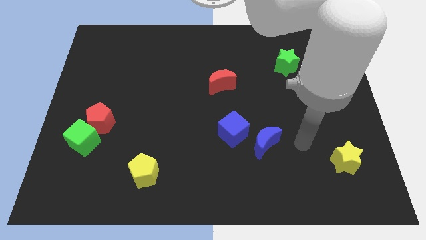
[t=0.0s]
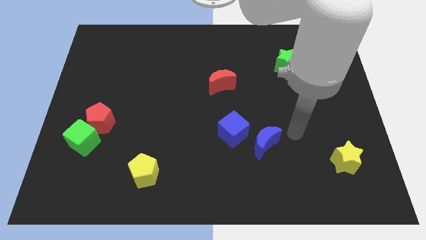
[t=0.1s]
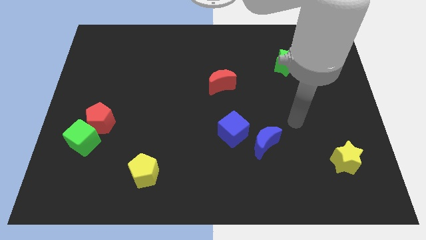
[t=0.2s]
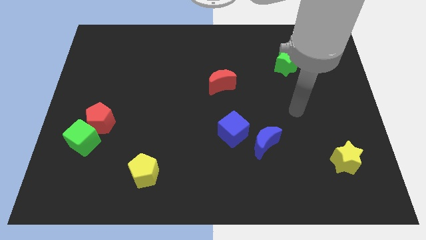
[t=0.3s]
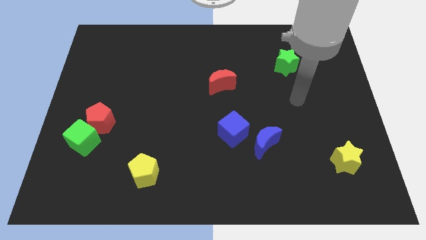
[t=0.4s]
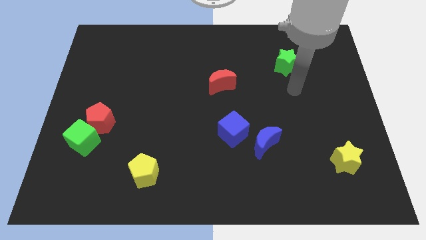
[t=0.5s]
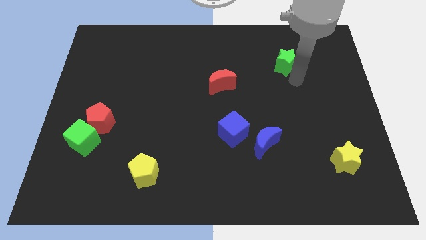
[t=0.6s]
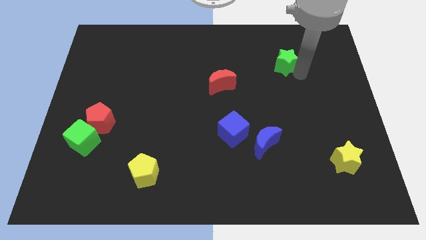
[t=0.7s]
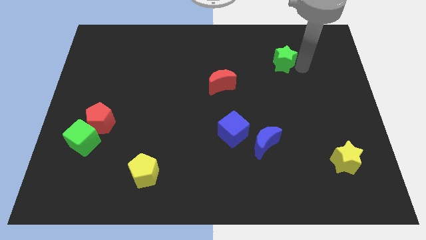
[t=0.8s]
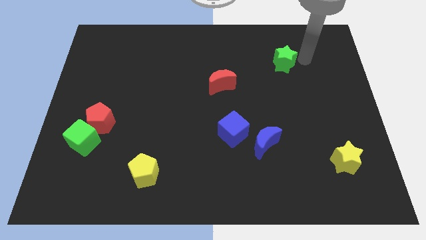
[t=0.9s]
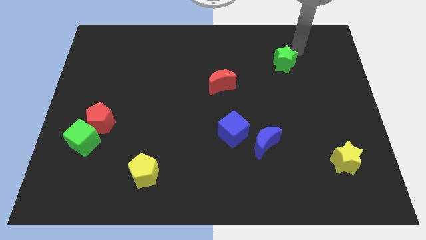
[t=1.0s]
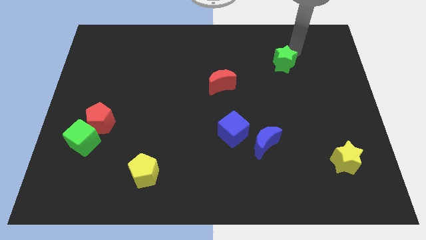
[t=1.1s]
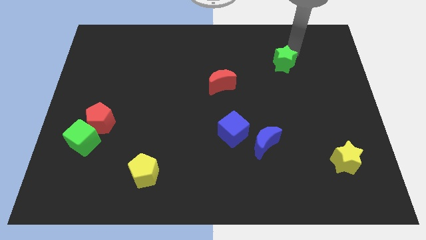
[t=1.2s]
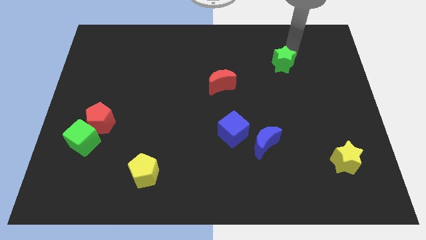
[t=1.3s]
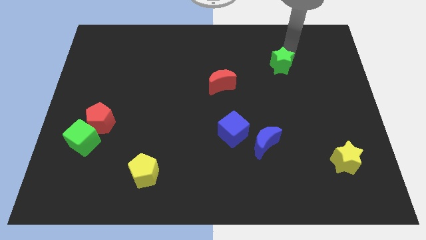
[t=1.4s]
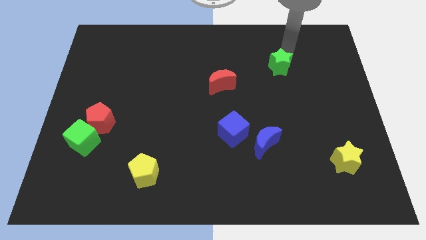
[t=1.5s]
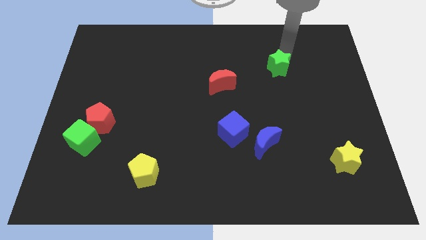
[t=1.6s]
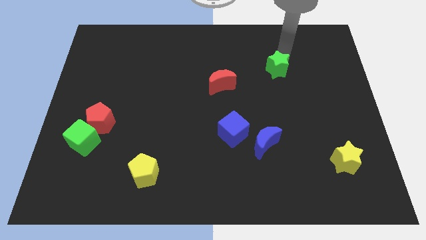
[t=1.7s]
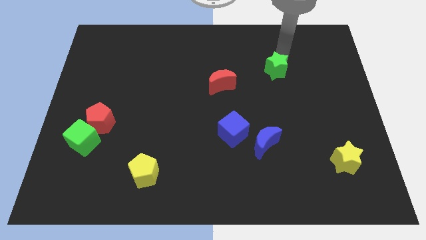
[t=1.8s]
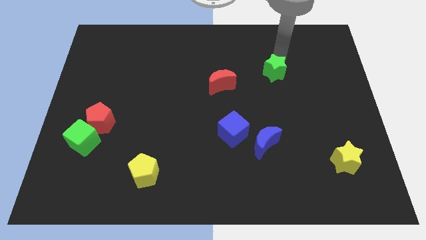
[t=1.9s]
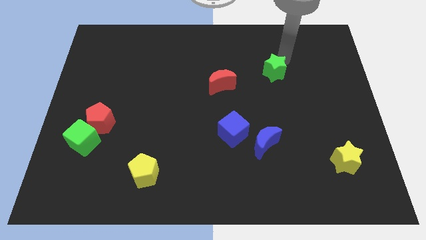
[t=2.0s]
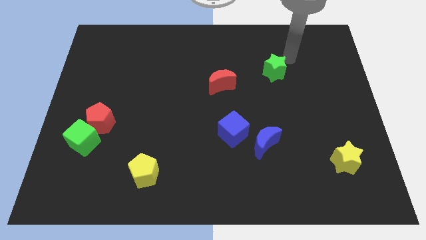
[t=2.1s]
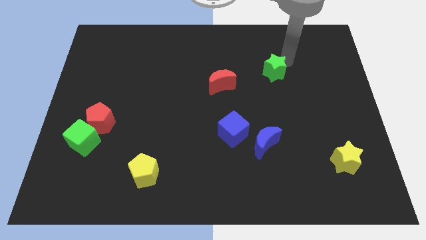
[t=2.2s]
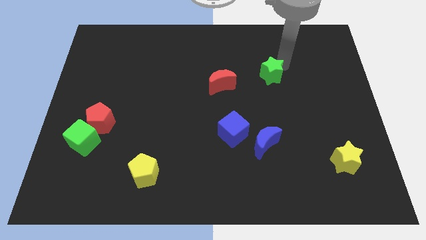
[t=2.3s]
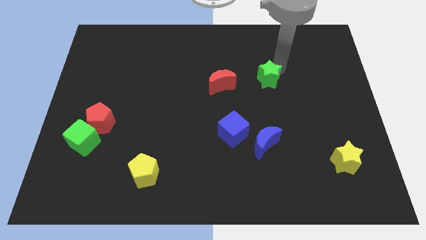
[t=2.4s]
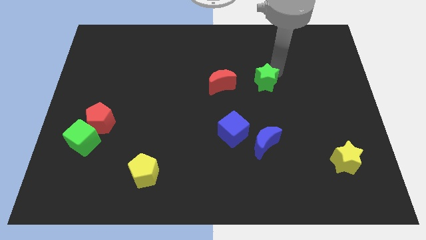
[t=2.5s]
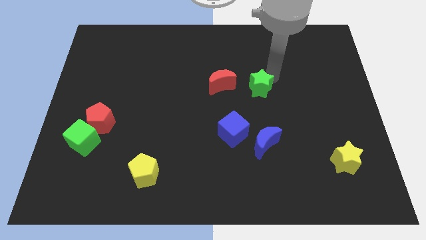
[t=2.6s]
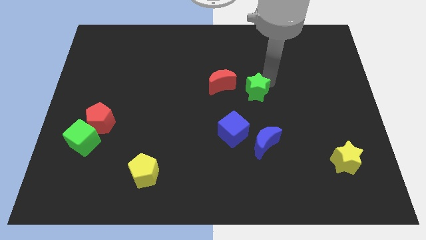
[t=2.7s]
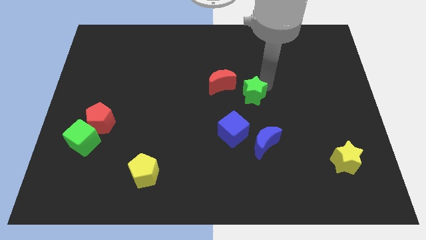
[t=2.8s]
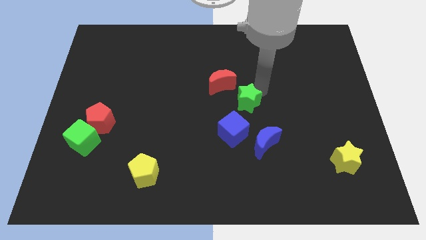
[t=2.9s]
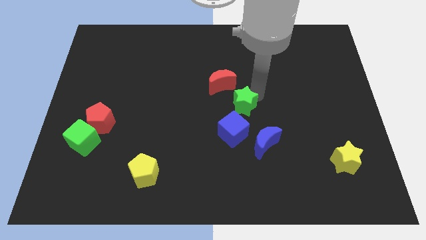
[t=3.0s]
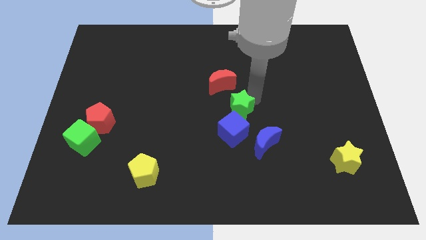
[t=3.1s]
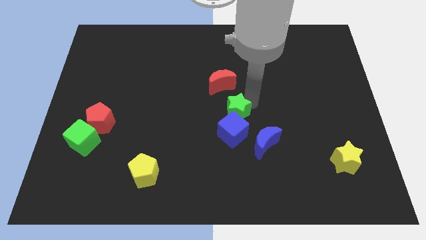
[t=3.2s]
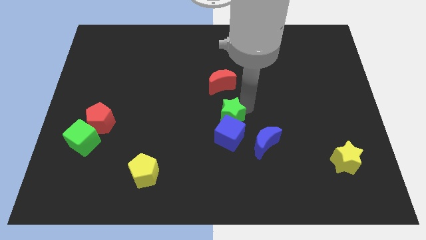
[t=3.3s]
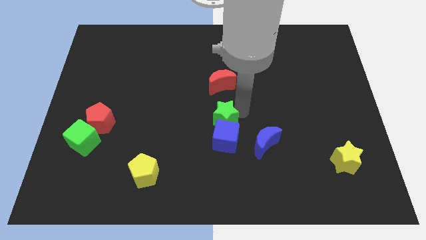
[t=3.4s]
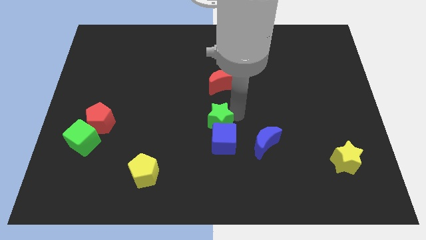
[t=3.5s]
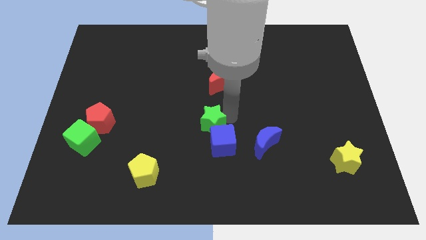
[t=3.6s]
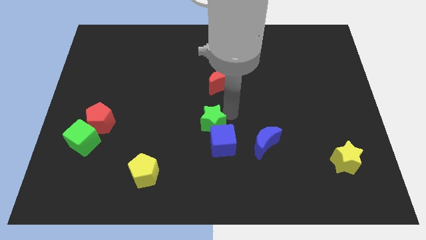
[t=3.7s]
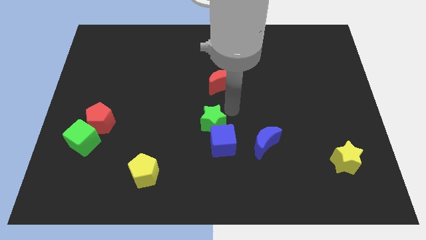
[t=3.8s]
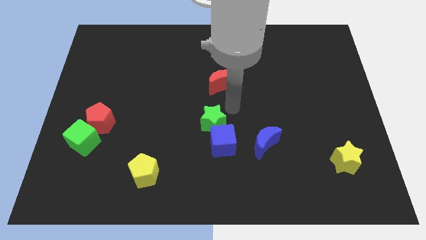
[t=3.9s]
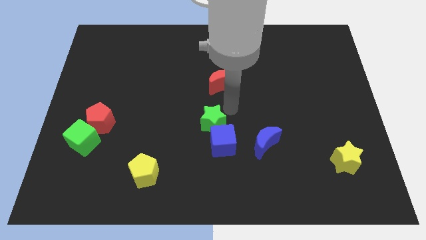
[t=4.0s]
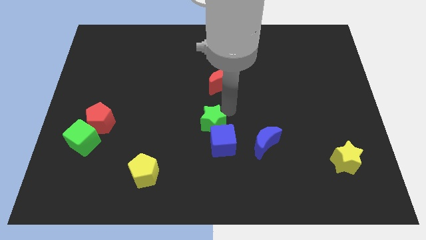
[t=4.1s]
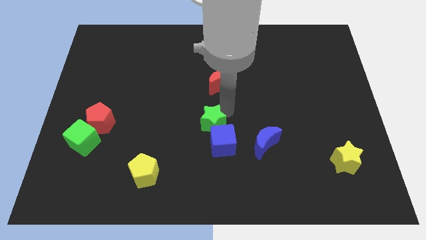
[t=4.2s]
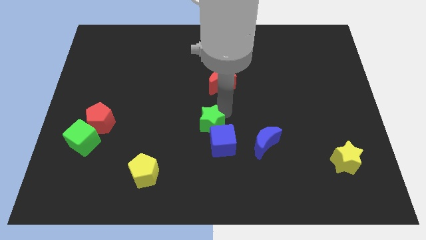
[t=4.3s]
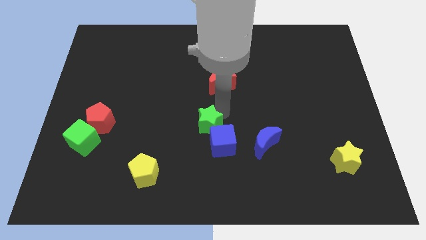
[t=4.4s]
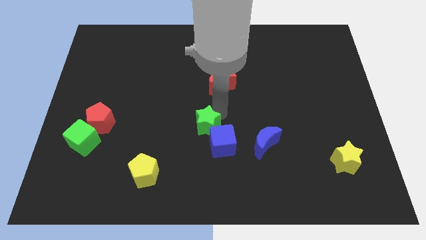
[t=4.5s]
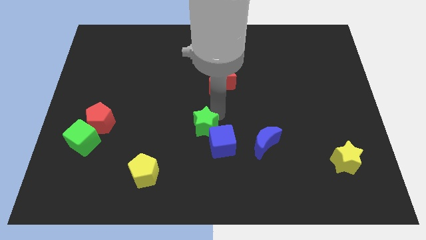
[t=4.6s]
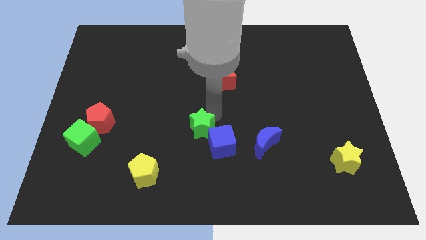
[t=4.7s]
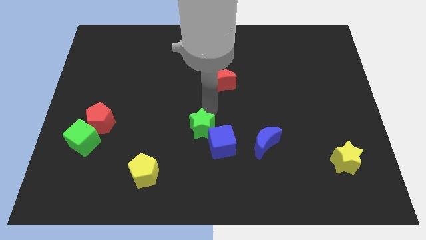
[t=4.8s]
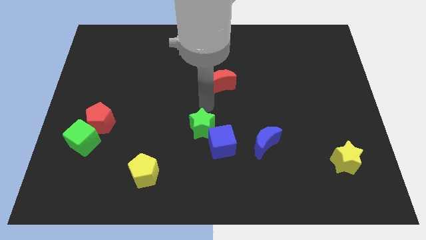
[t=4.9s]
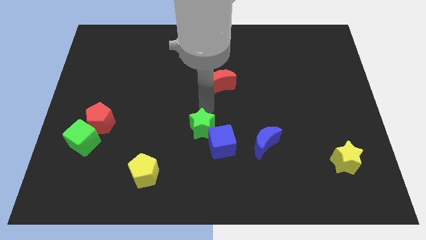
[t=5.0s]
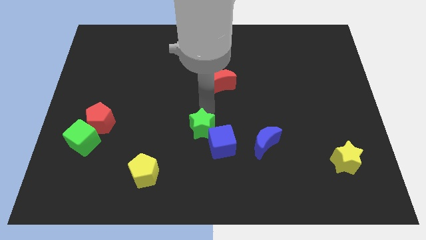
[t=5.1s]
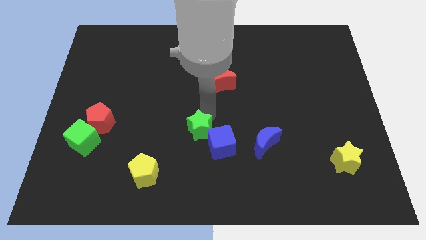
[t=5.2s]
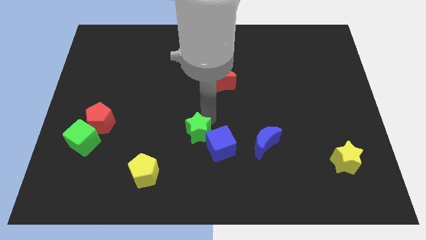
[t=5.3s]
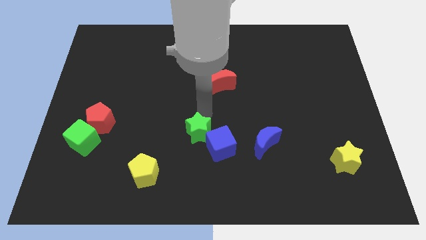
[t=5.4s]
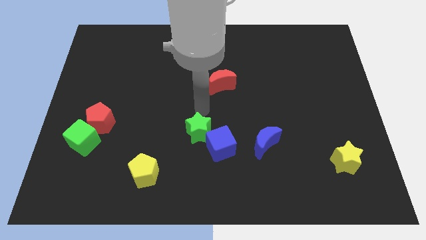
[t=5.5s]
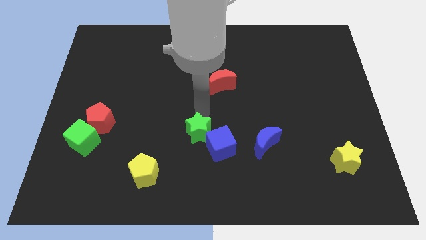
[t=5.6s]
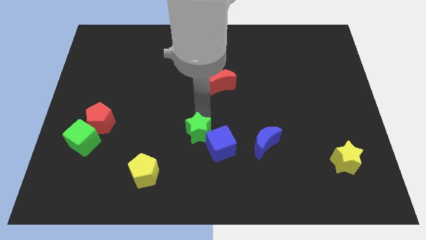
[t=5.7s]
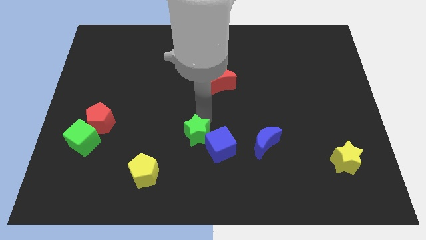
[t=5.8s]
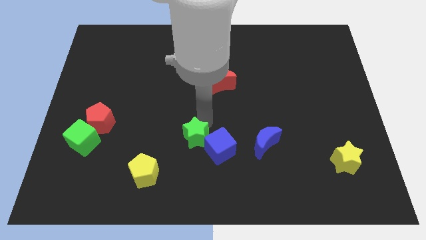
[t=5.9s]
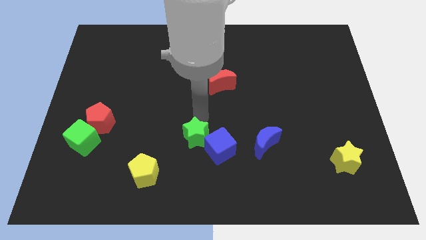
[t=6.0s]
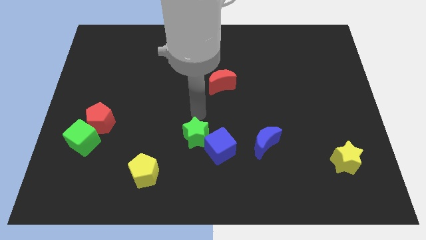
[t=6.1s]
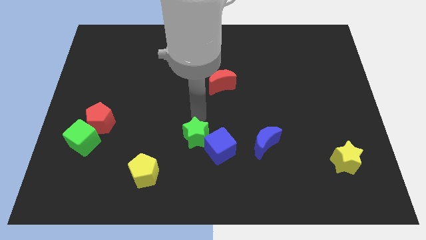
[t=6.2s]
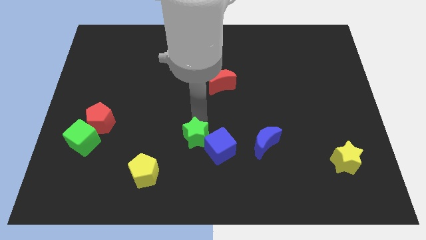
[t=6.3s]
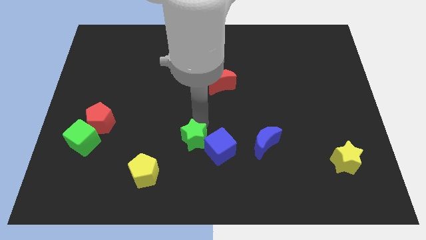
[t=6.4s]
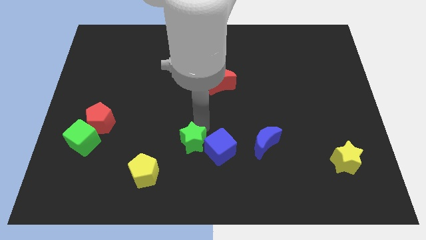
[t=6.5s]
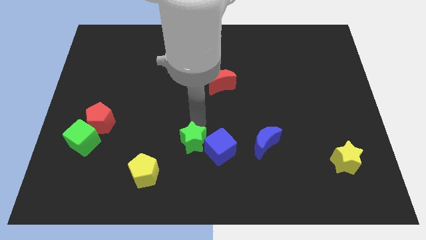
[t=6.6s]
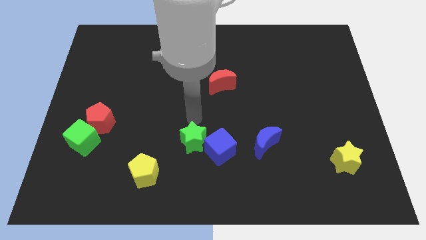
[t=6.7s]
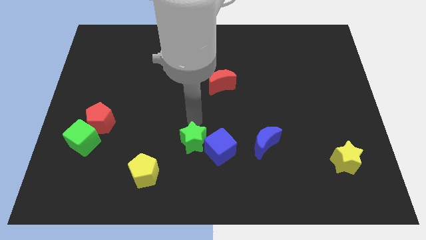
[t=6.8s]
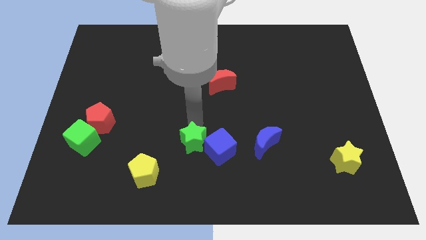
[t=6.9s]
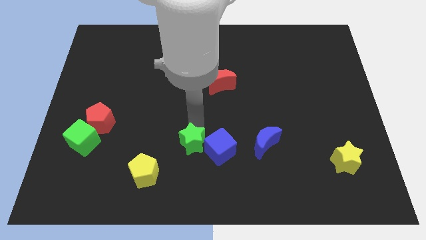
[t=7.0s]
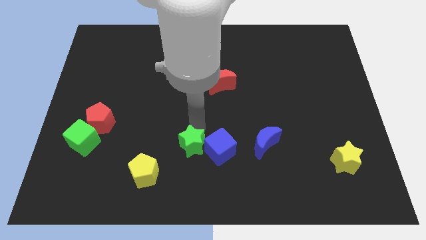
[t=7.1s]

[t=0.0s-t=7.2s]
move the green star to the bottom left side of the blue cube
